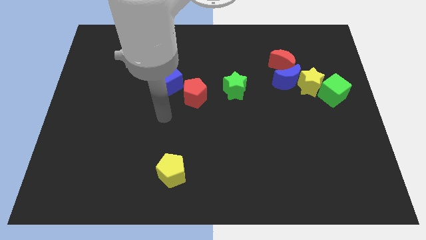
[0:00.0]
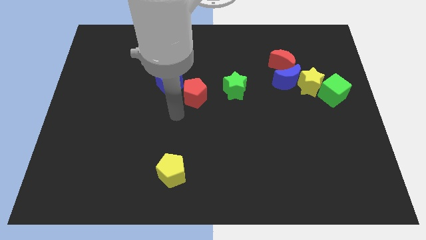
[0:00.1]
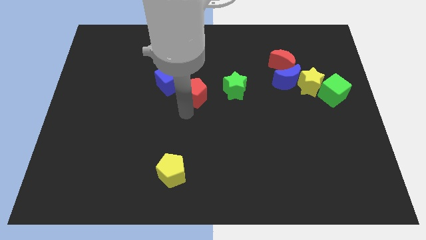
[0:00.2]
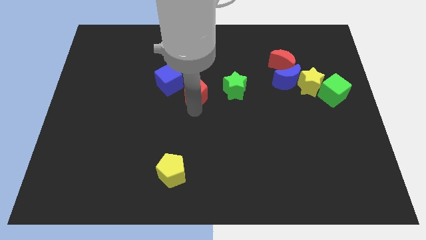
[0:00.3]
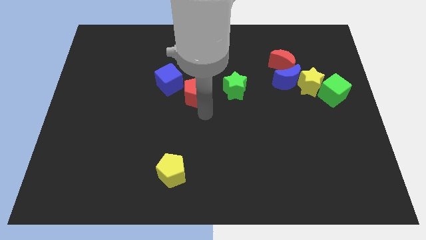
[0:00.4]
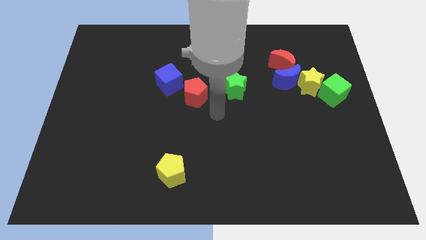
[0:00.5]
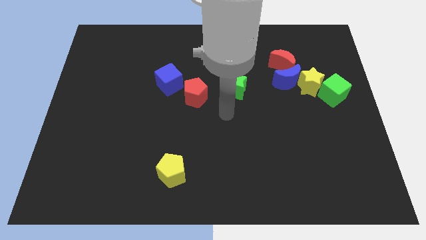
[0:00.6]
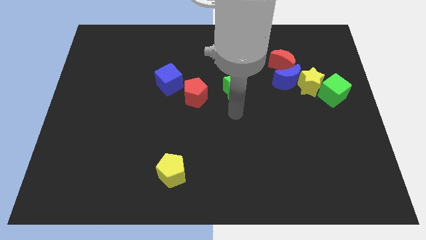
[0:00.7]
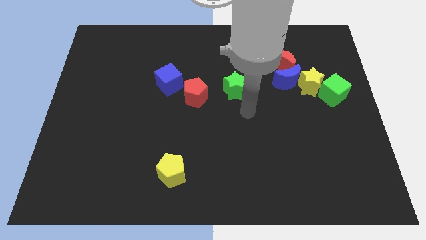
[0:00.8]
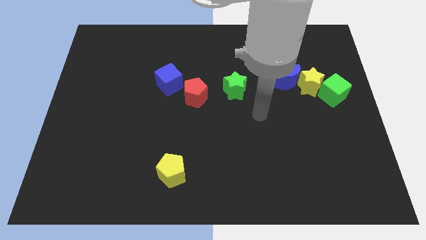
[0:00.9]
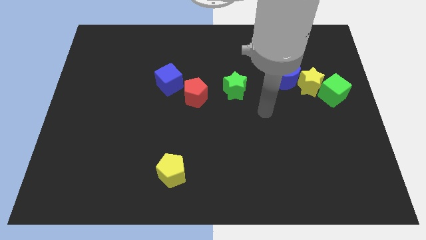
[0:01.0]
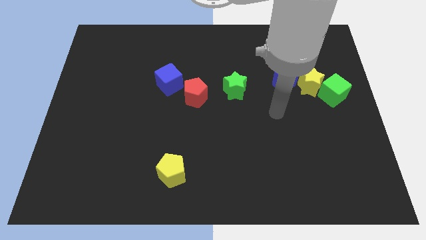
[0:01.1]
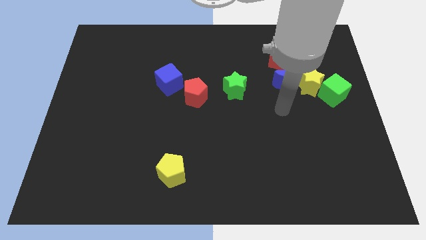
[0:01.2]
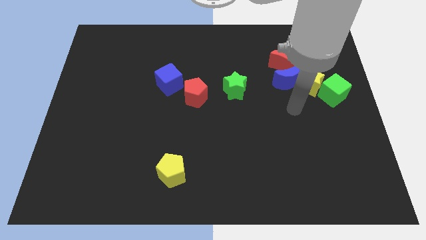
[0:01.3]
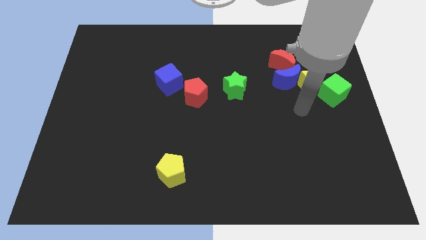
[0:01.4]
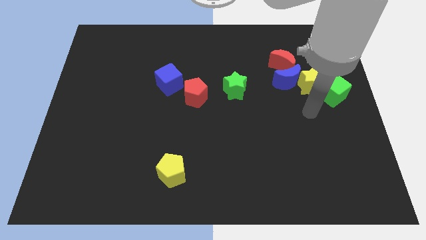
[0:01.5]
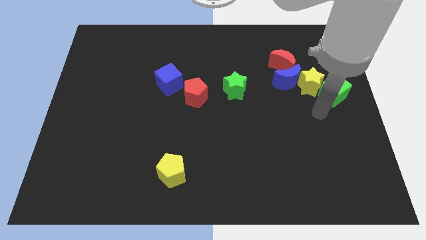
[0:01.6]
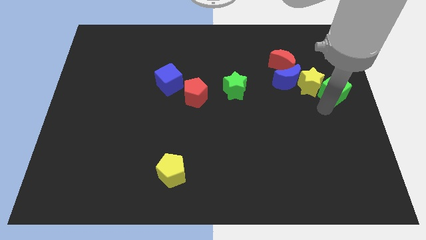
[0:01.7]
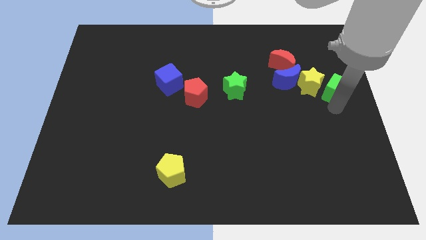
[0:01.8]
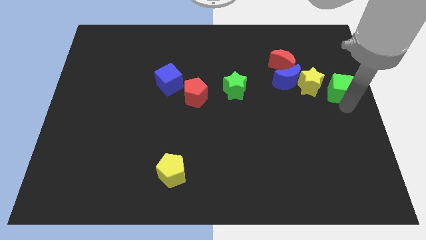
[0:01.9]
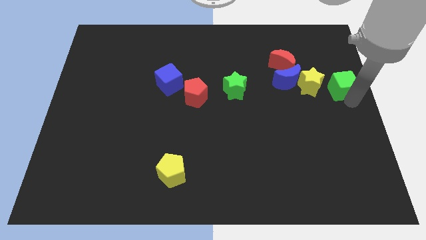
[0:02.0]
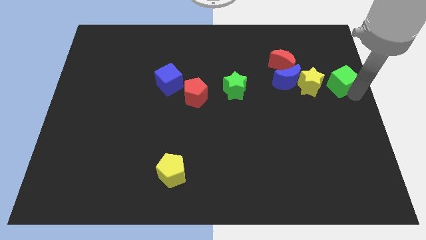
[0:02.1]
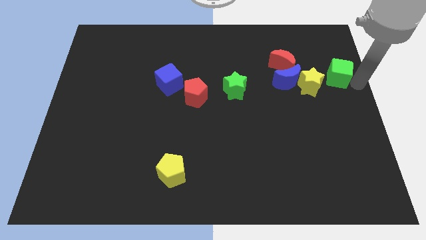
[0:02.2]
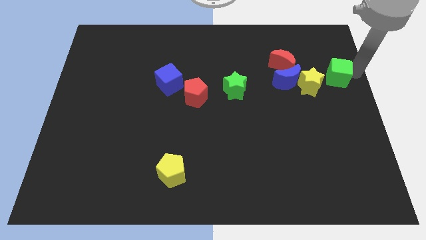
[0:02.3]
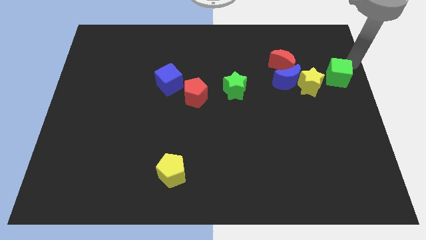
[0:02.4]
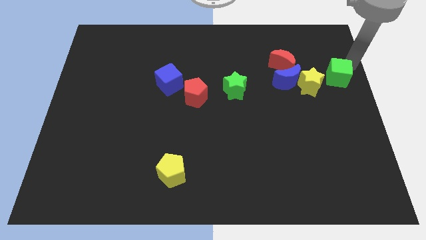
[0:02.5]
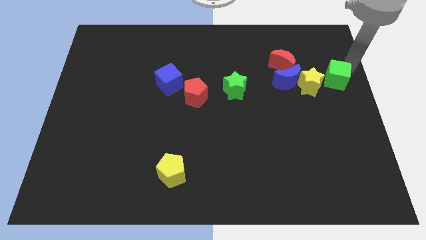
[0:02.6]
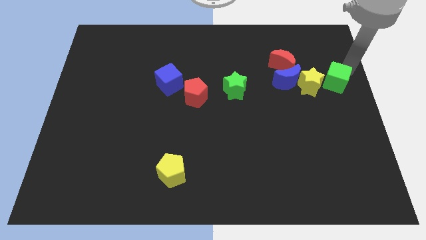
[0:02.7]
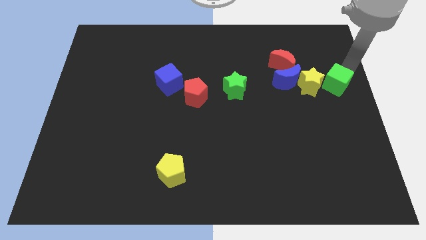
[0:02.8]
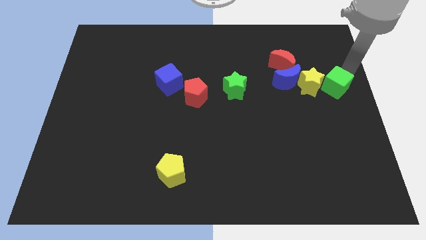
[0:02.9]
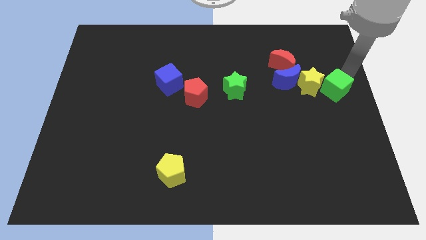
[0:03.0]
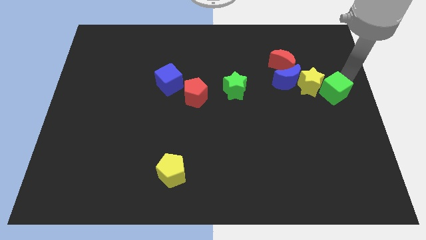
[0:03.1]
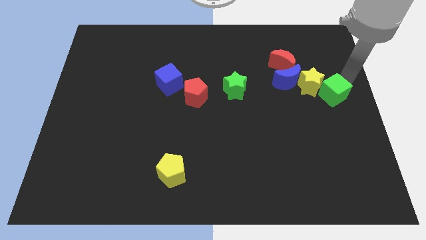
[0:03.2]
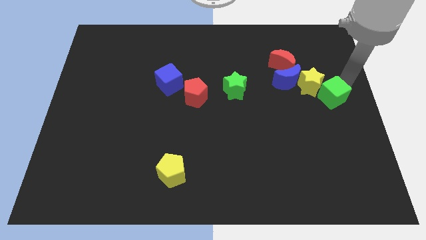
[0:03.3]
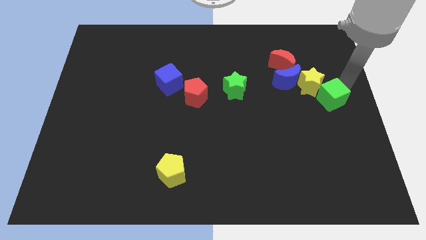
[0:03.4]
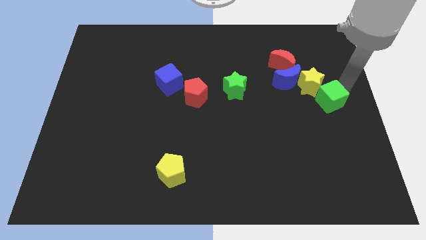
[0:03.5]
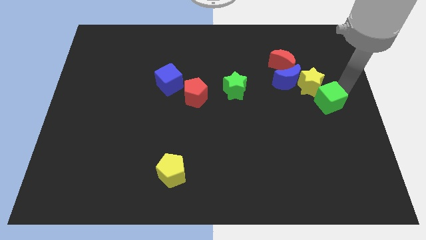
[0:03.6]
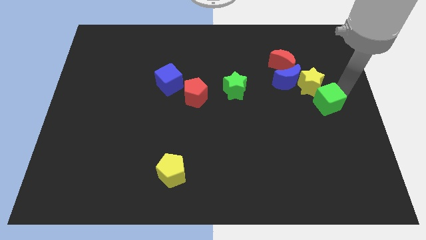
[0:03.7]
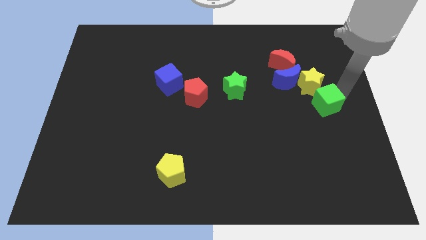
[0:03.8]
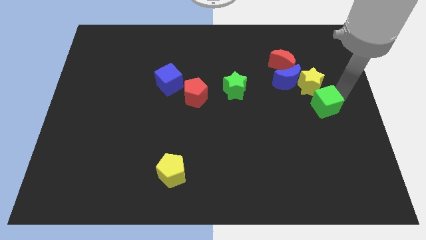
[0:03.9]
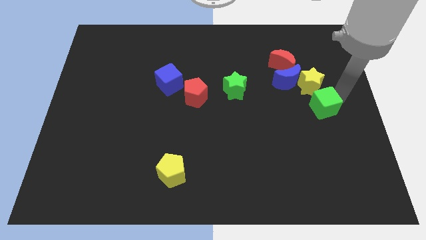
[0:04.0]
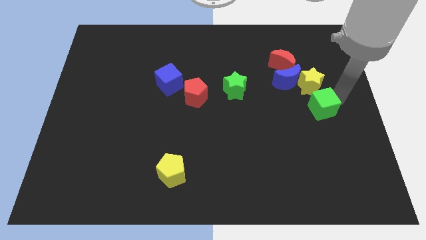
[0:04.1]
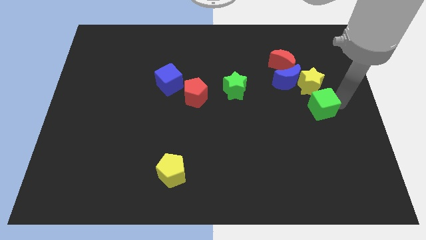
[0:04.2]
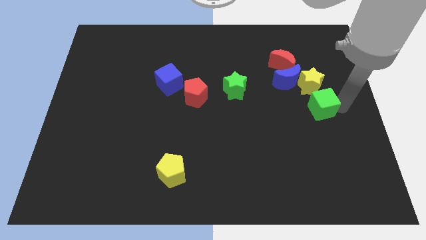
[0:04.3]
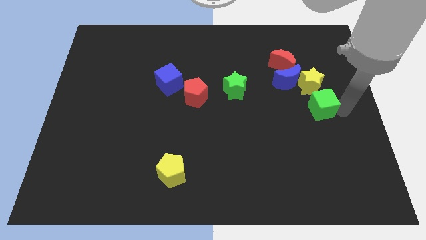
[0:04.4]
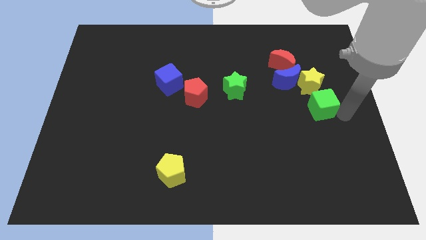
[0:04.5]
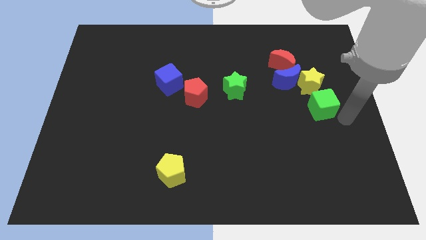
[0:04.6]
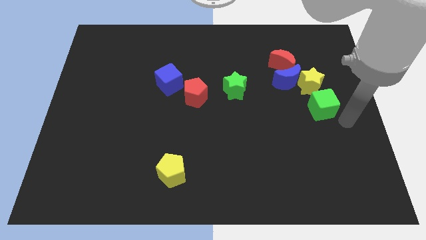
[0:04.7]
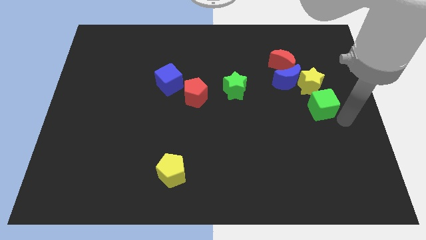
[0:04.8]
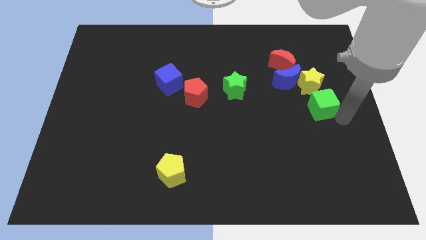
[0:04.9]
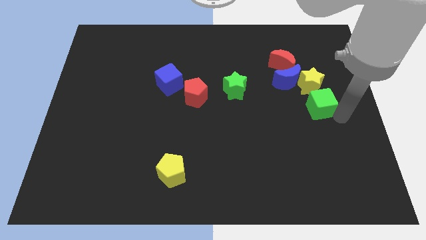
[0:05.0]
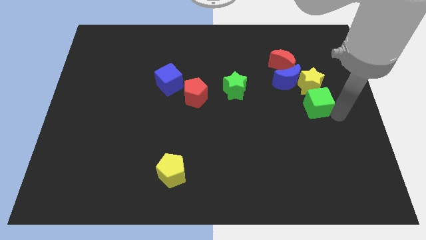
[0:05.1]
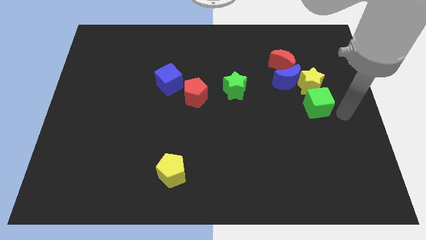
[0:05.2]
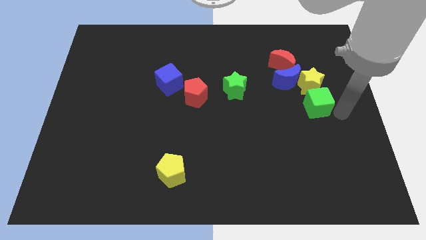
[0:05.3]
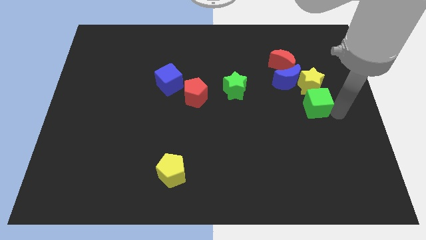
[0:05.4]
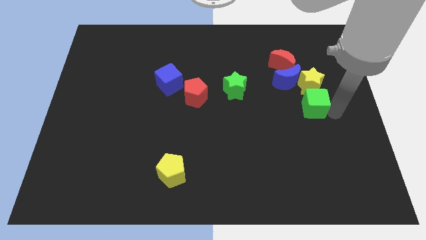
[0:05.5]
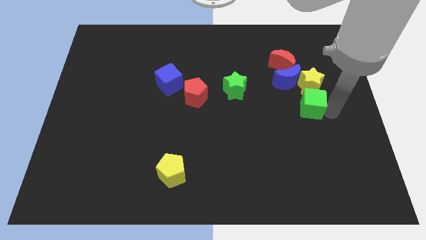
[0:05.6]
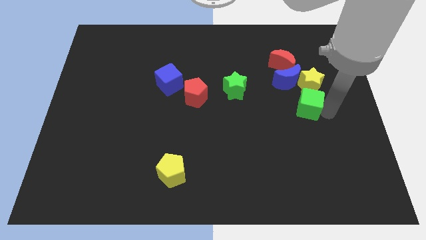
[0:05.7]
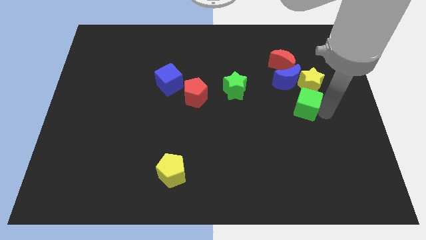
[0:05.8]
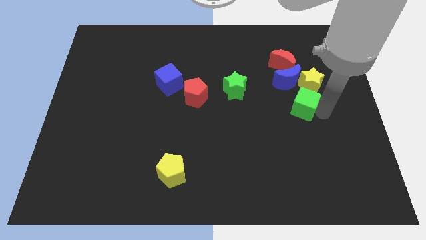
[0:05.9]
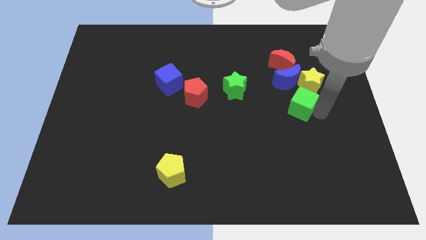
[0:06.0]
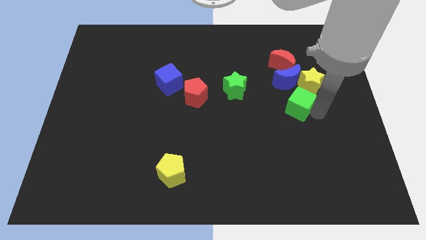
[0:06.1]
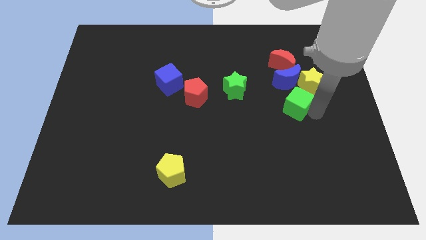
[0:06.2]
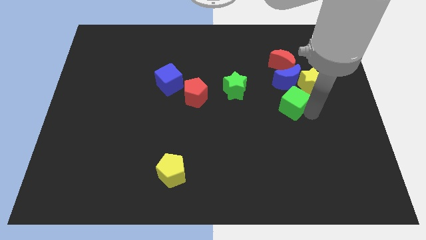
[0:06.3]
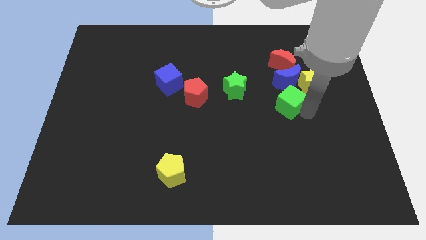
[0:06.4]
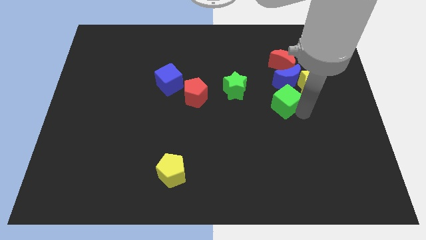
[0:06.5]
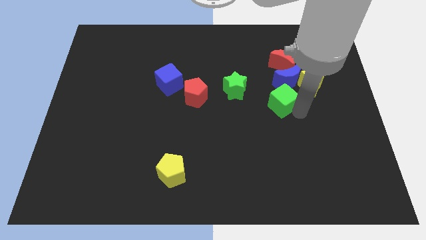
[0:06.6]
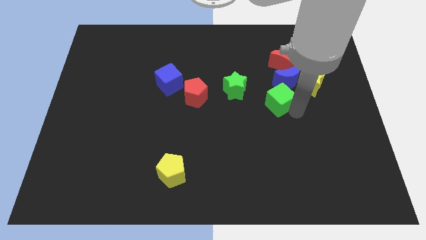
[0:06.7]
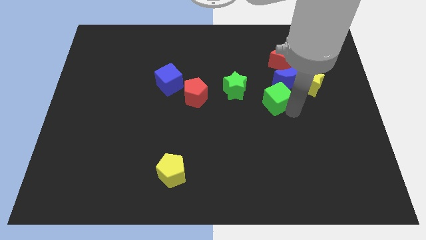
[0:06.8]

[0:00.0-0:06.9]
push the green cube to the left side of the yellow star
